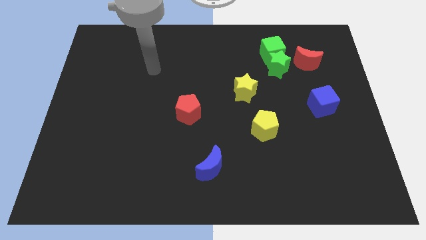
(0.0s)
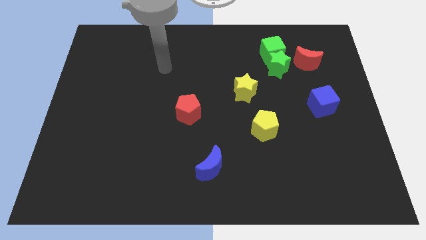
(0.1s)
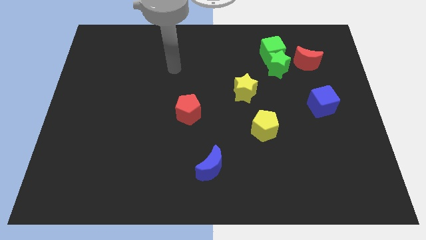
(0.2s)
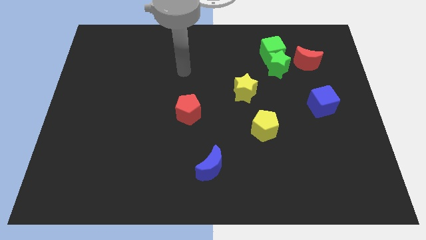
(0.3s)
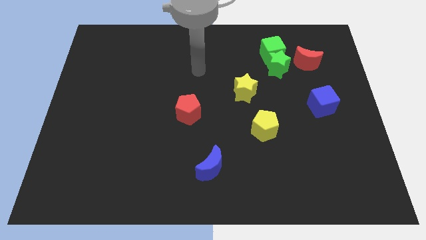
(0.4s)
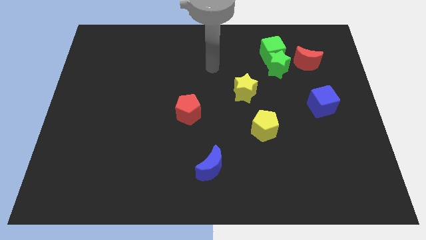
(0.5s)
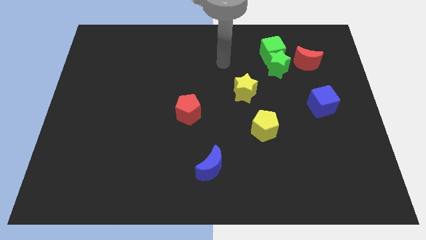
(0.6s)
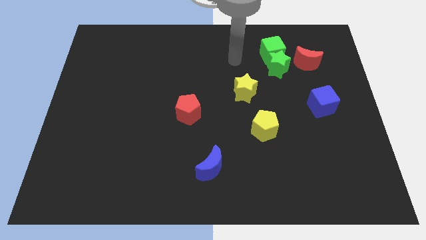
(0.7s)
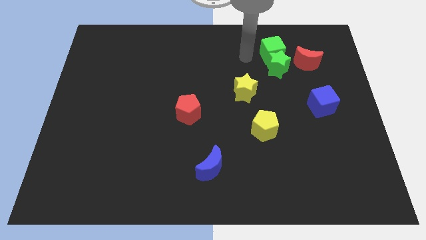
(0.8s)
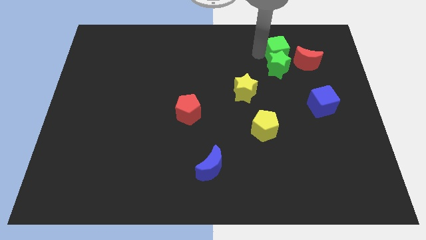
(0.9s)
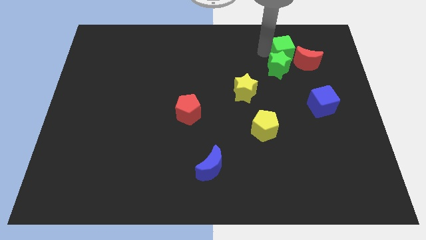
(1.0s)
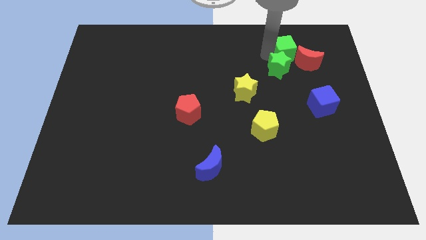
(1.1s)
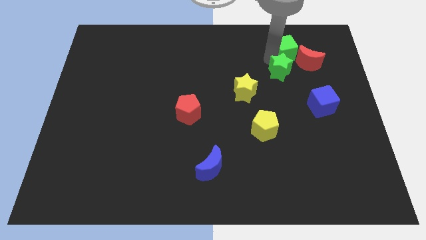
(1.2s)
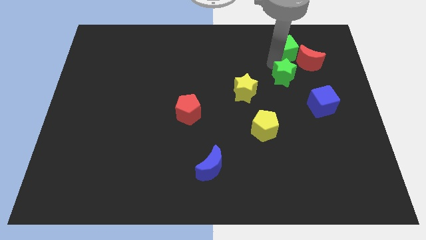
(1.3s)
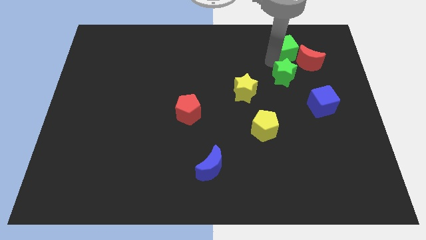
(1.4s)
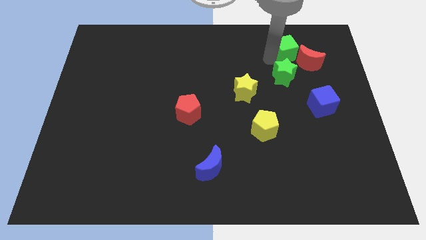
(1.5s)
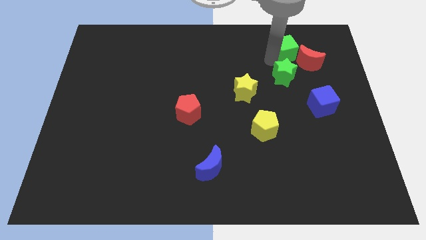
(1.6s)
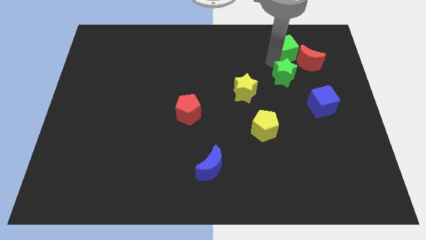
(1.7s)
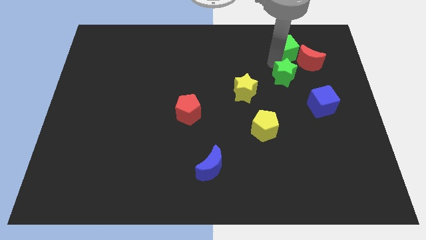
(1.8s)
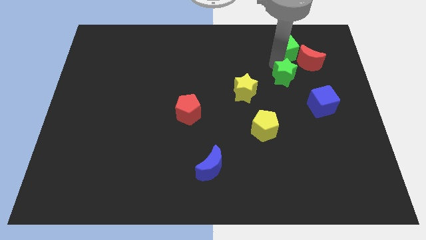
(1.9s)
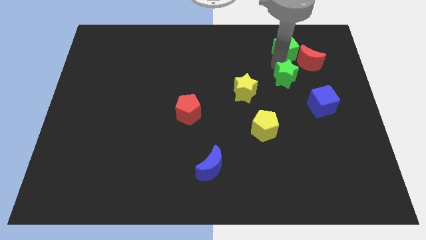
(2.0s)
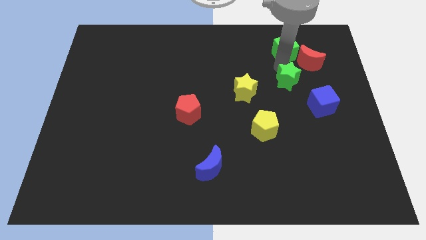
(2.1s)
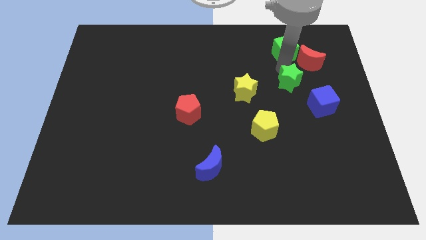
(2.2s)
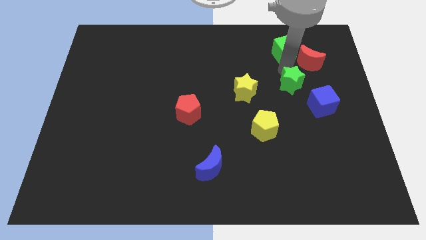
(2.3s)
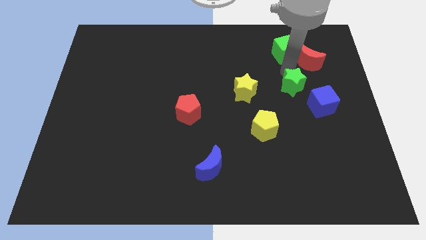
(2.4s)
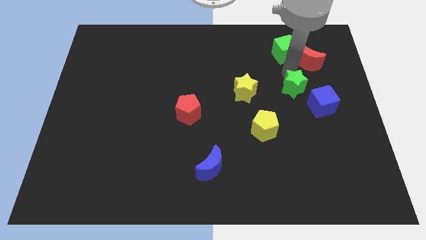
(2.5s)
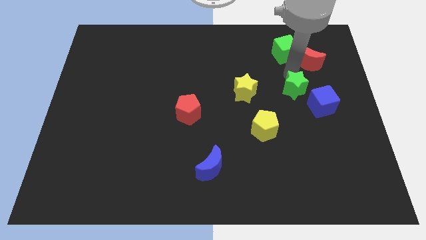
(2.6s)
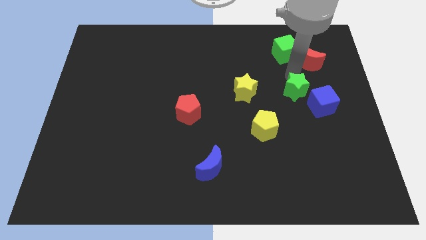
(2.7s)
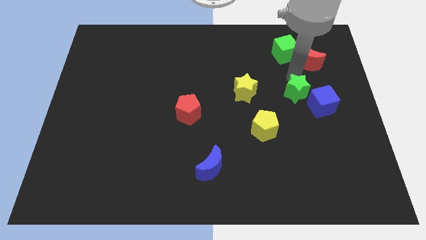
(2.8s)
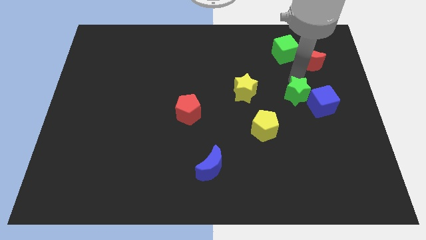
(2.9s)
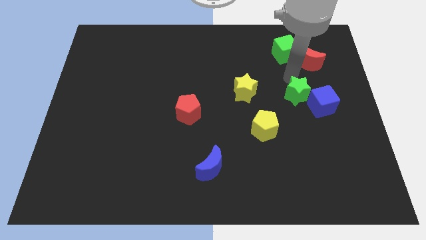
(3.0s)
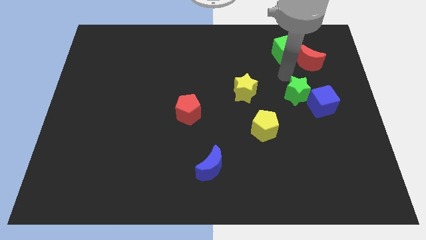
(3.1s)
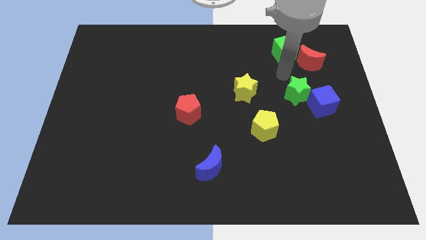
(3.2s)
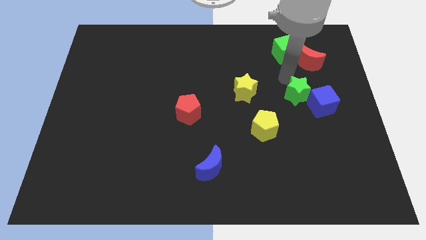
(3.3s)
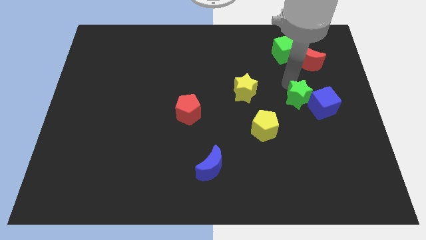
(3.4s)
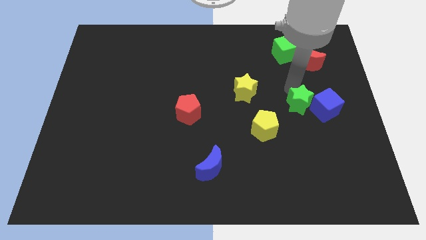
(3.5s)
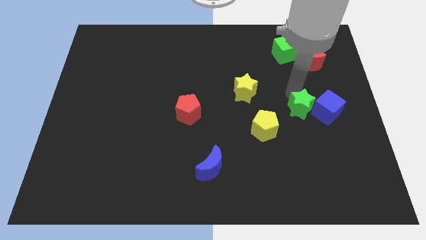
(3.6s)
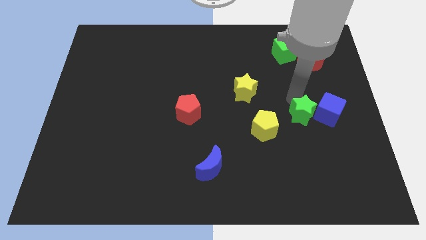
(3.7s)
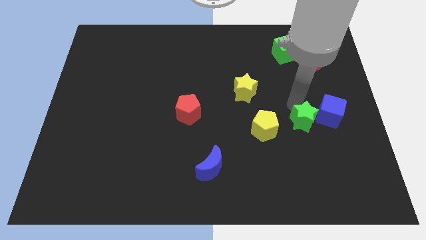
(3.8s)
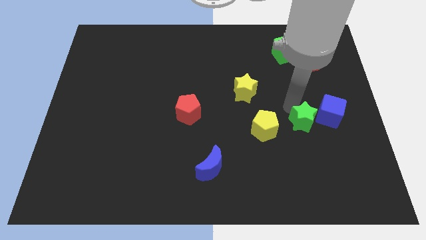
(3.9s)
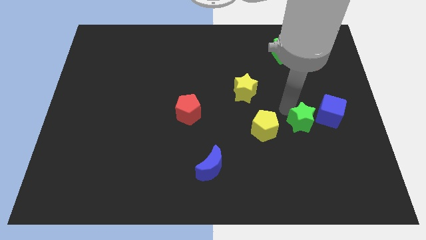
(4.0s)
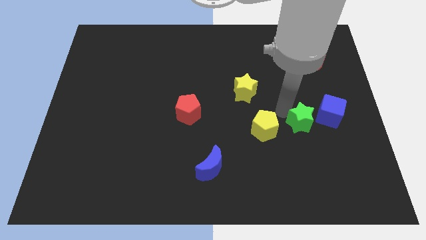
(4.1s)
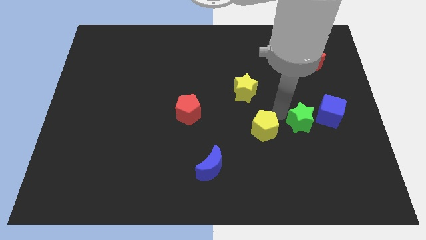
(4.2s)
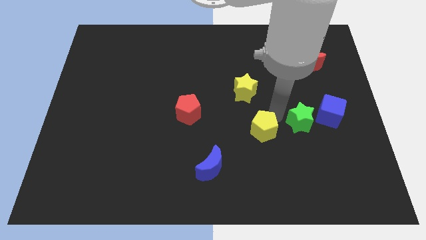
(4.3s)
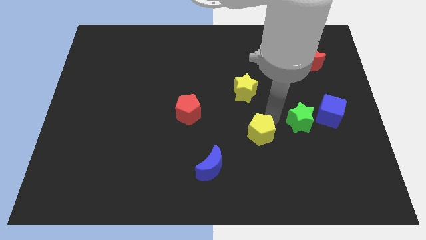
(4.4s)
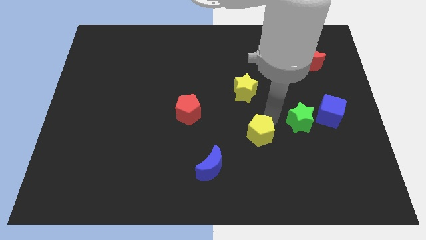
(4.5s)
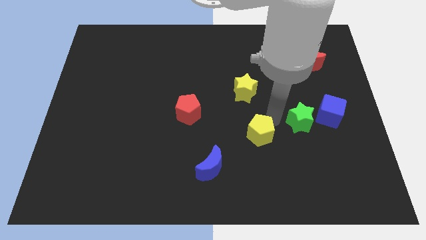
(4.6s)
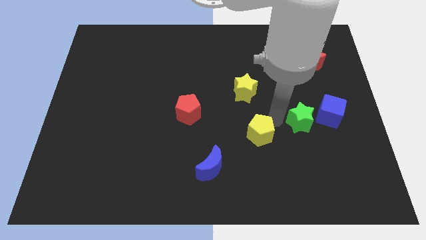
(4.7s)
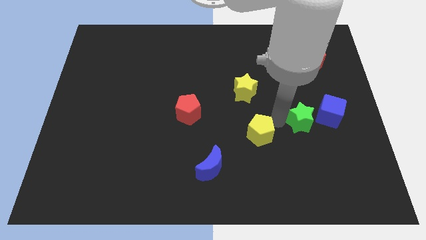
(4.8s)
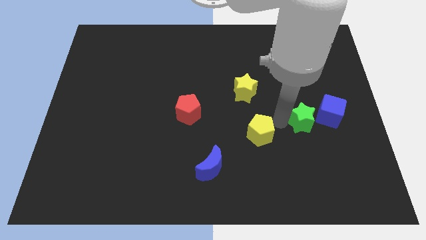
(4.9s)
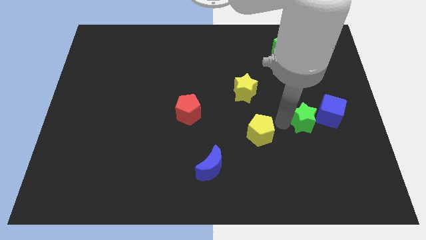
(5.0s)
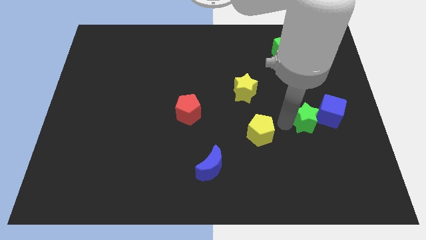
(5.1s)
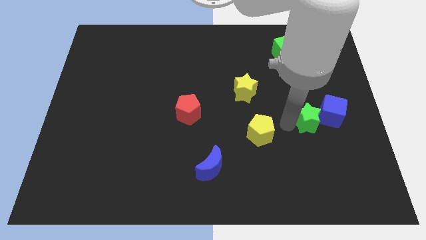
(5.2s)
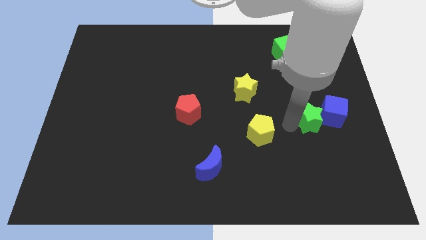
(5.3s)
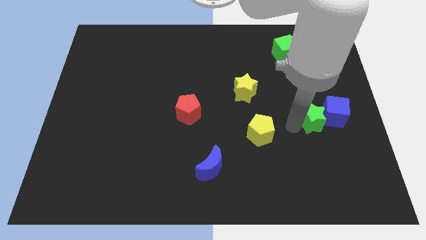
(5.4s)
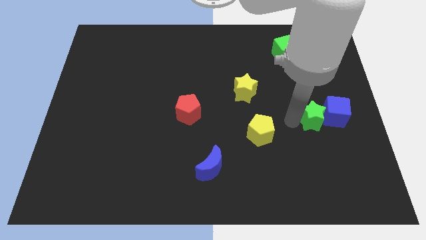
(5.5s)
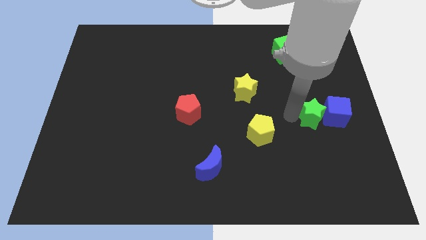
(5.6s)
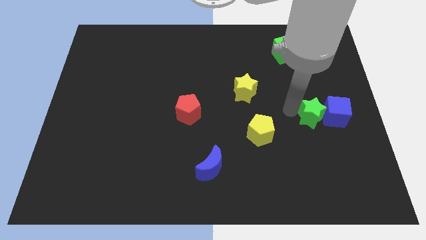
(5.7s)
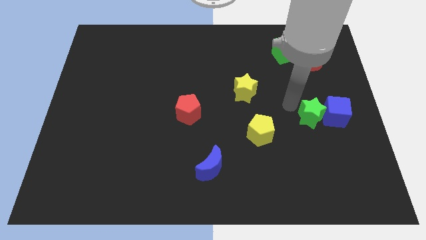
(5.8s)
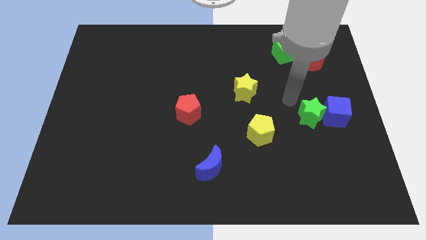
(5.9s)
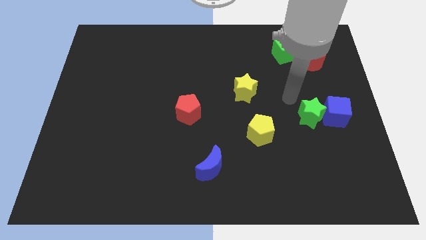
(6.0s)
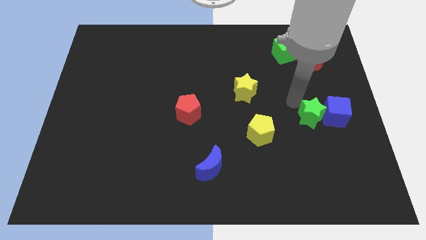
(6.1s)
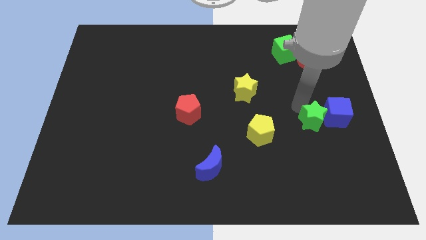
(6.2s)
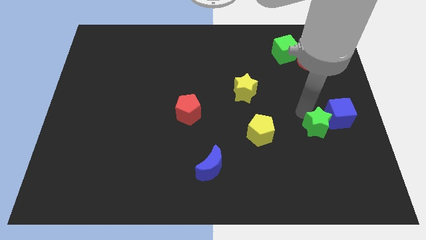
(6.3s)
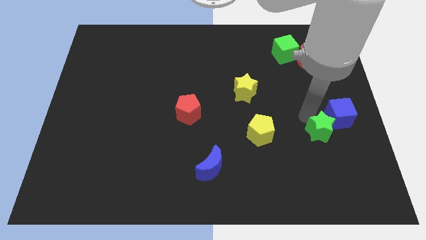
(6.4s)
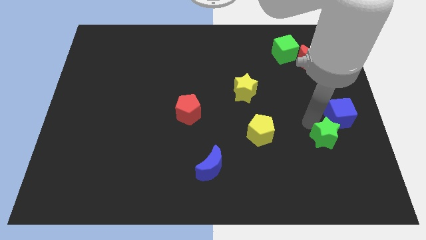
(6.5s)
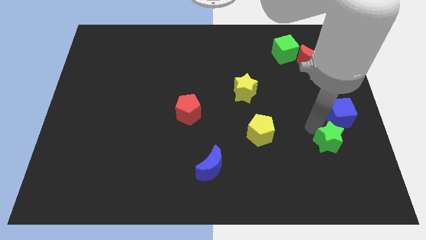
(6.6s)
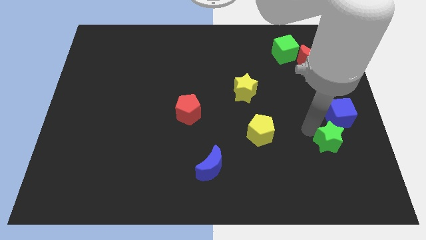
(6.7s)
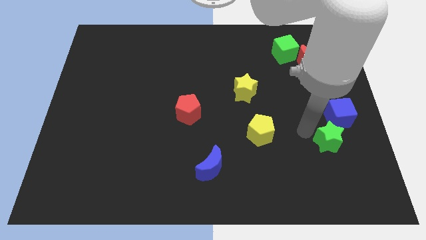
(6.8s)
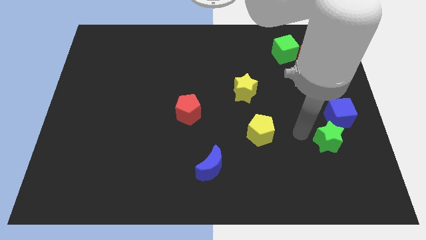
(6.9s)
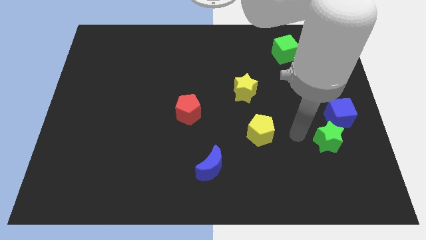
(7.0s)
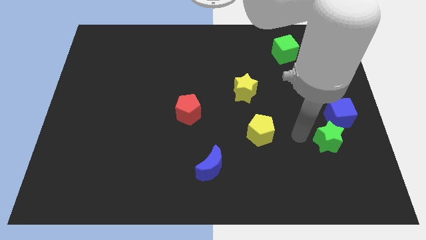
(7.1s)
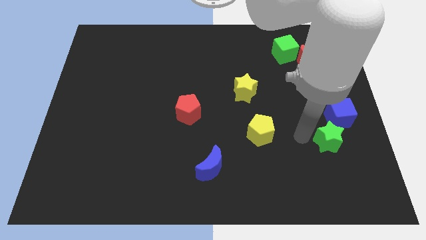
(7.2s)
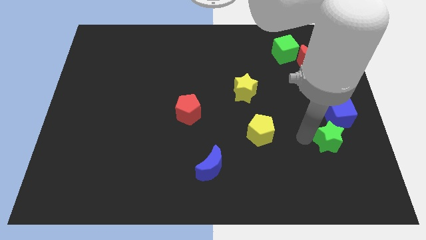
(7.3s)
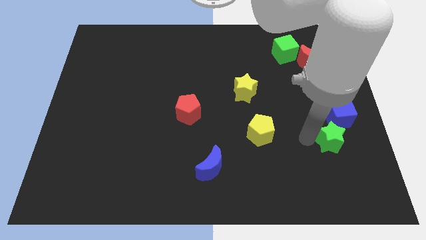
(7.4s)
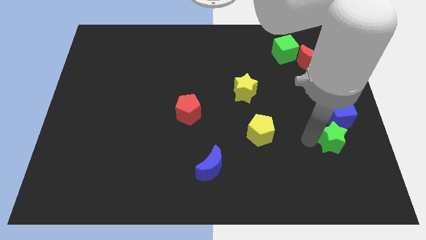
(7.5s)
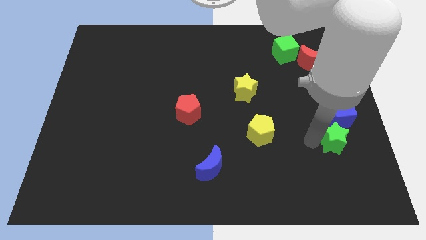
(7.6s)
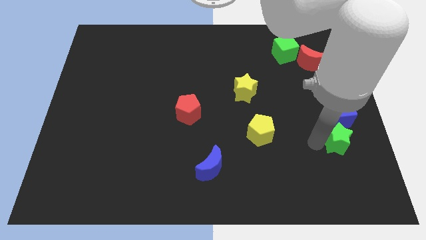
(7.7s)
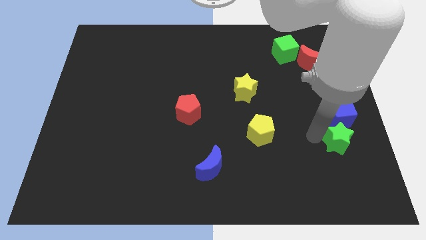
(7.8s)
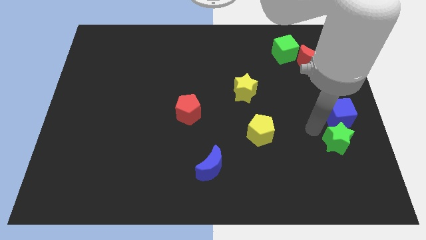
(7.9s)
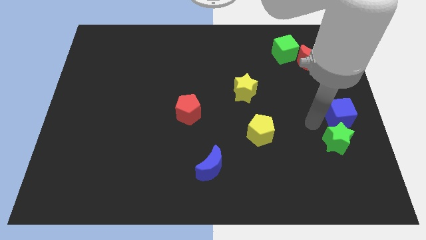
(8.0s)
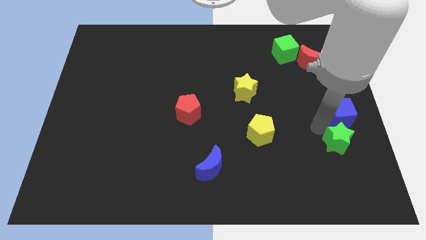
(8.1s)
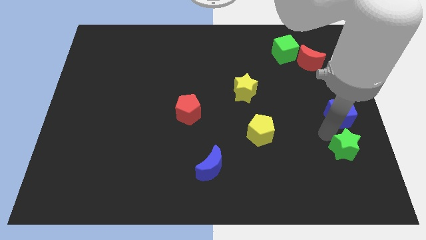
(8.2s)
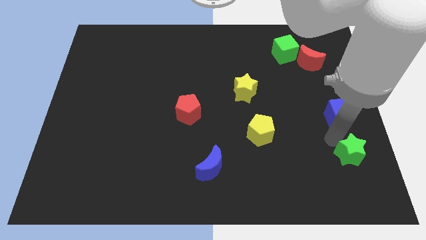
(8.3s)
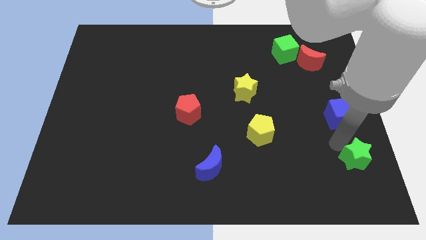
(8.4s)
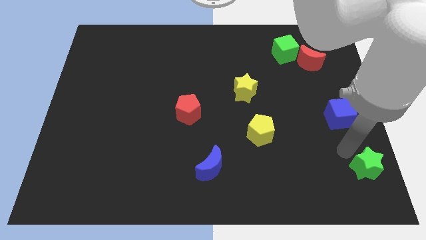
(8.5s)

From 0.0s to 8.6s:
put the green star to the bottom right
